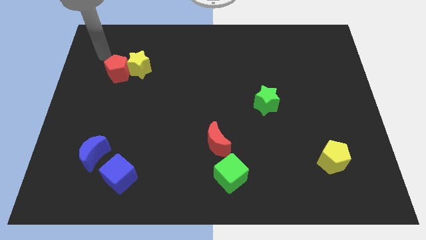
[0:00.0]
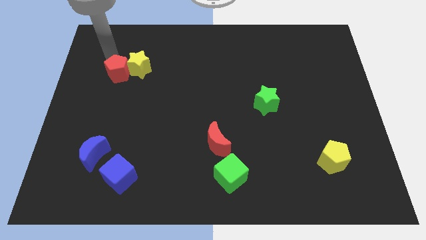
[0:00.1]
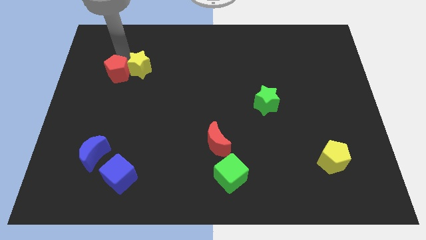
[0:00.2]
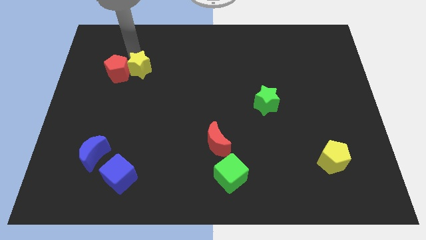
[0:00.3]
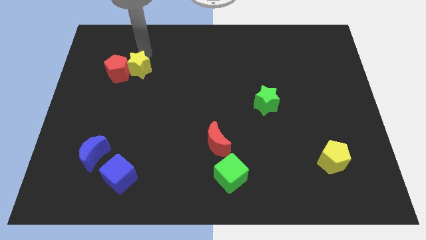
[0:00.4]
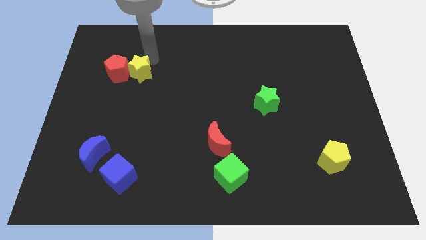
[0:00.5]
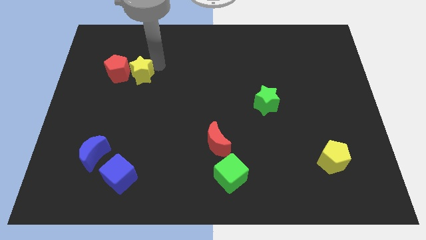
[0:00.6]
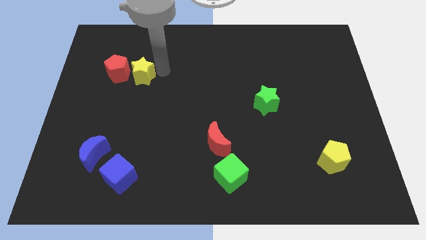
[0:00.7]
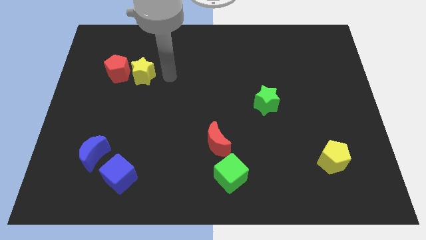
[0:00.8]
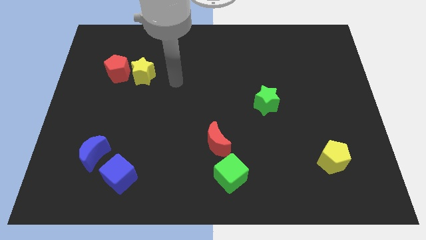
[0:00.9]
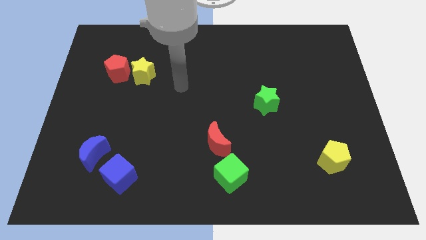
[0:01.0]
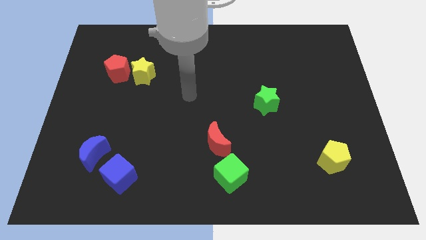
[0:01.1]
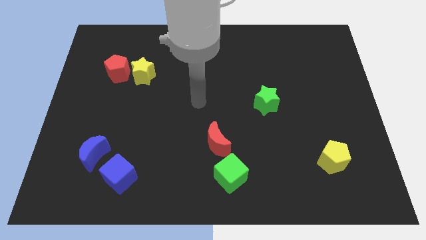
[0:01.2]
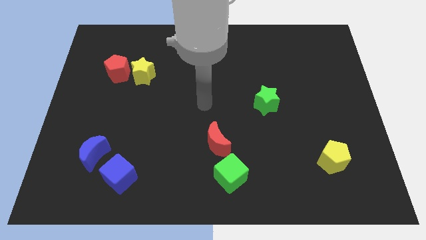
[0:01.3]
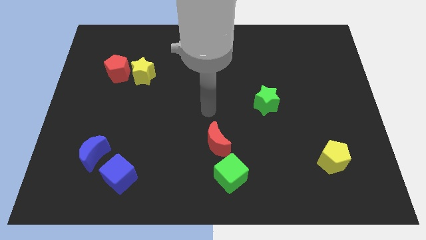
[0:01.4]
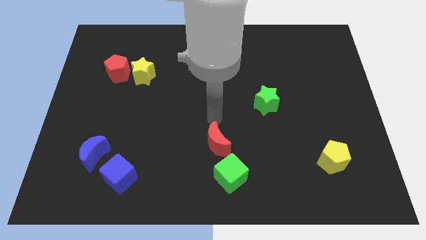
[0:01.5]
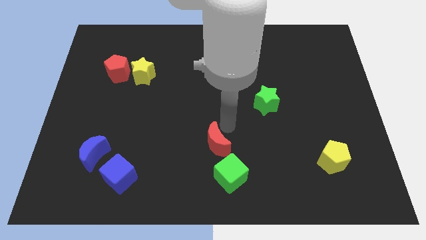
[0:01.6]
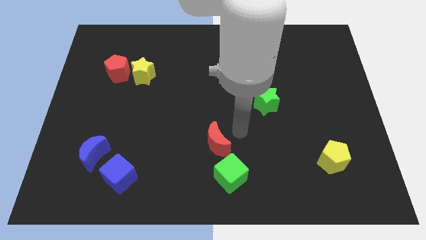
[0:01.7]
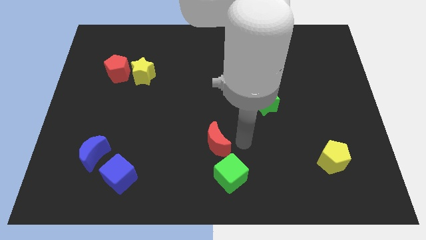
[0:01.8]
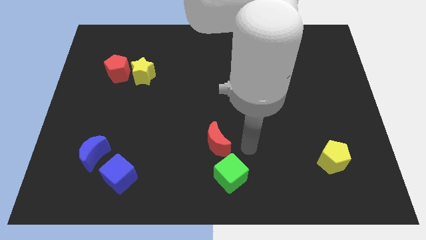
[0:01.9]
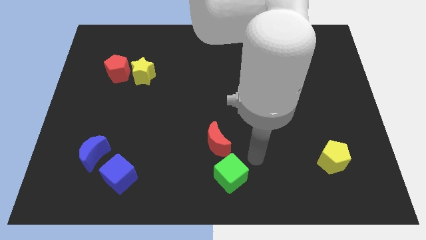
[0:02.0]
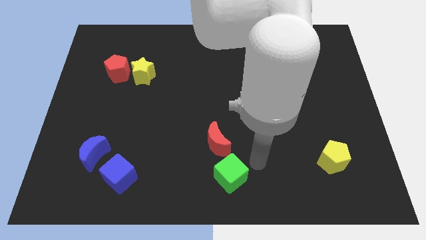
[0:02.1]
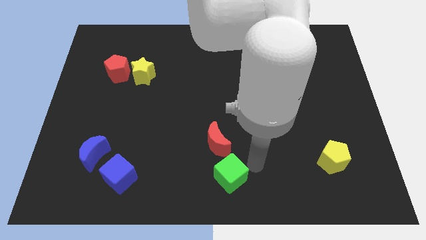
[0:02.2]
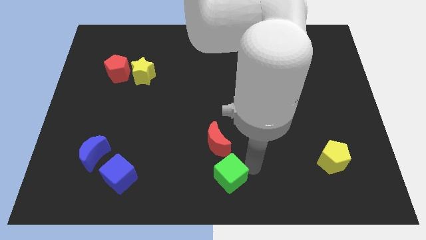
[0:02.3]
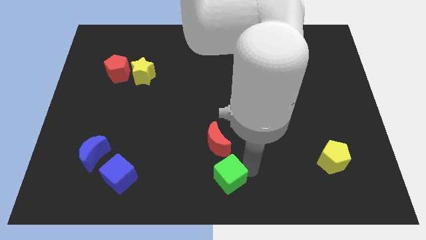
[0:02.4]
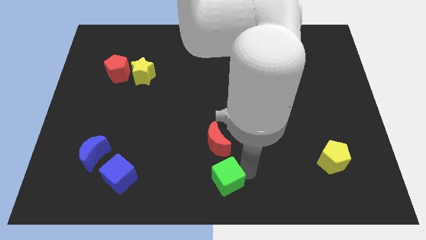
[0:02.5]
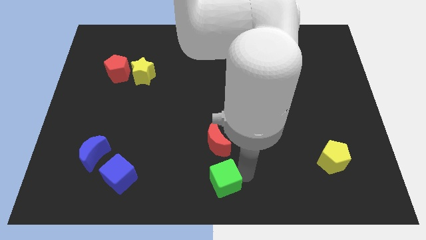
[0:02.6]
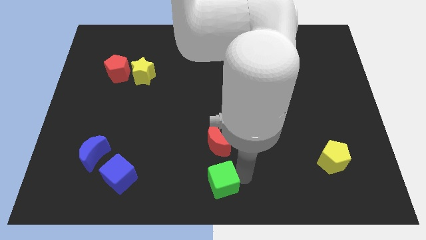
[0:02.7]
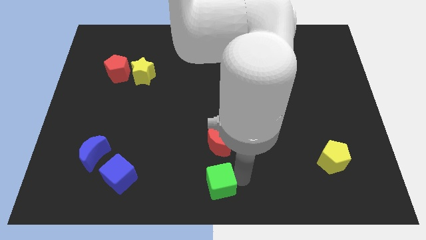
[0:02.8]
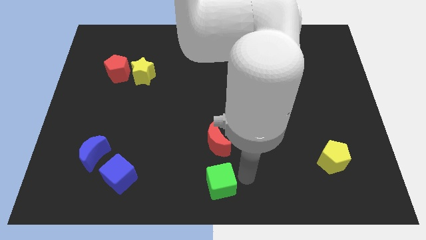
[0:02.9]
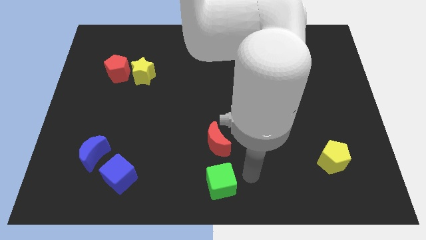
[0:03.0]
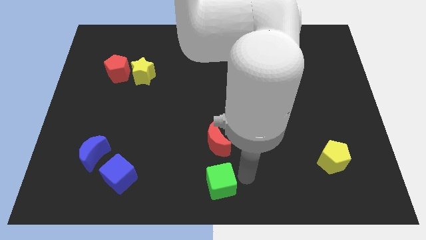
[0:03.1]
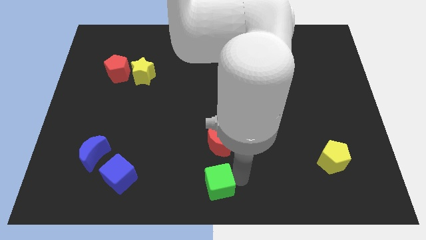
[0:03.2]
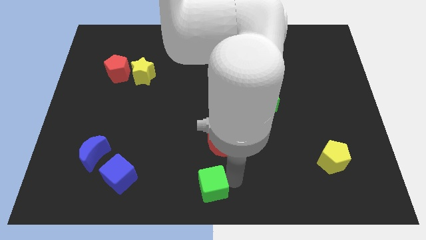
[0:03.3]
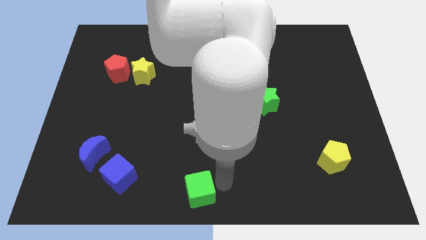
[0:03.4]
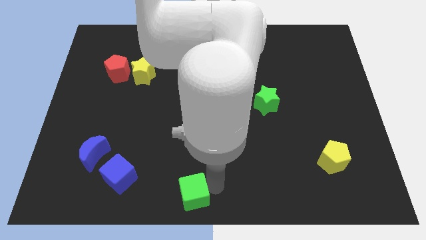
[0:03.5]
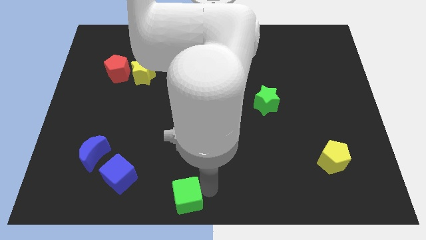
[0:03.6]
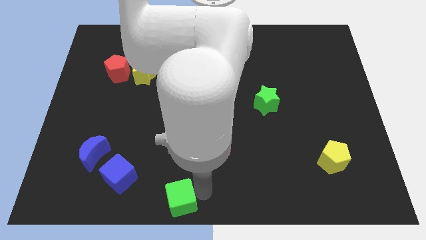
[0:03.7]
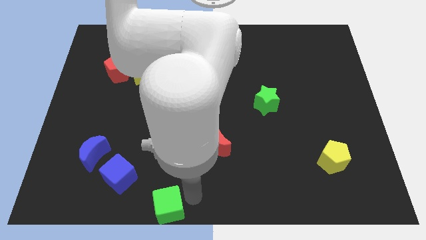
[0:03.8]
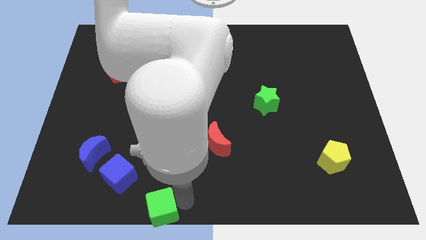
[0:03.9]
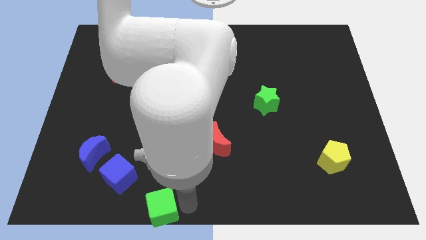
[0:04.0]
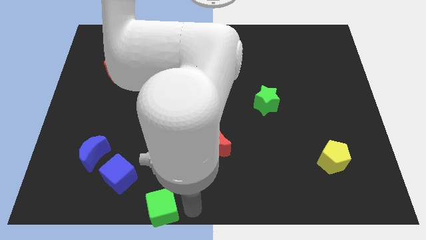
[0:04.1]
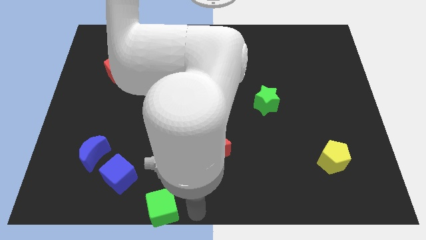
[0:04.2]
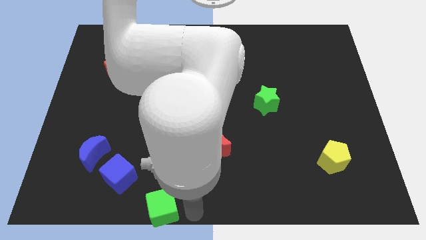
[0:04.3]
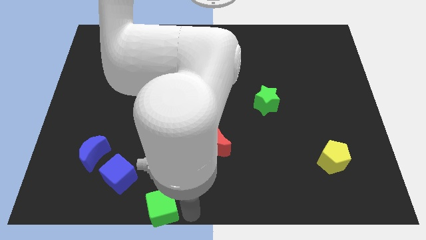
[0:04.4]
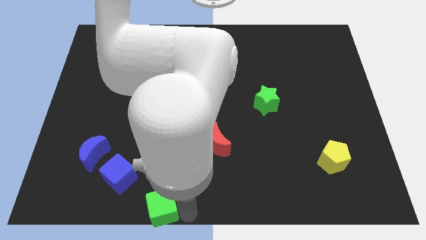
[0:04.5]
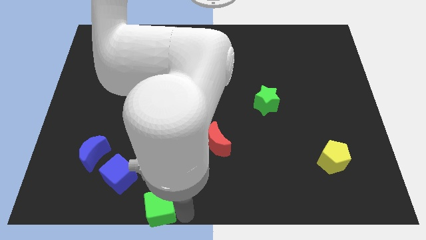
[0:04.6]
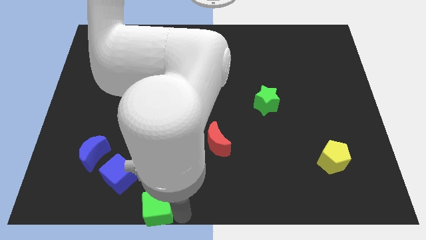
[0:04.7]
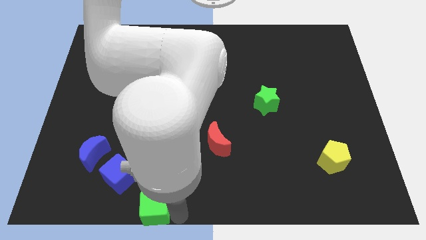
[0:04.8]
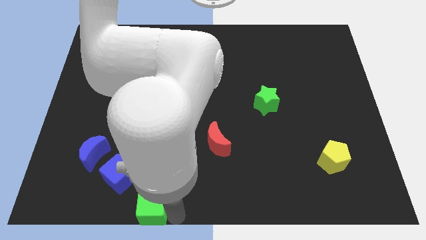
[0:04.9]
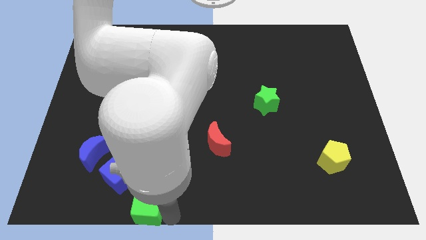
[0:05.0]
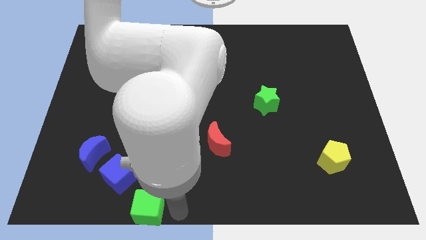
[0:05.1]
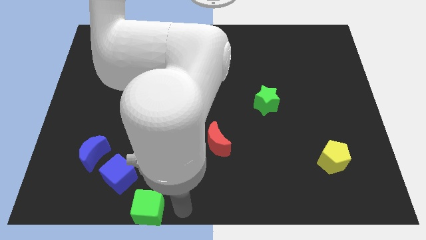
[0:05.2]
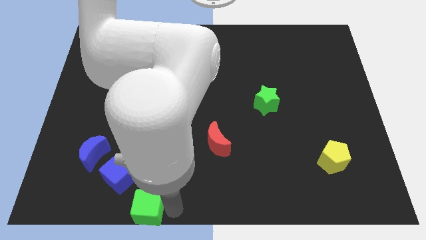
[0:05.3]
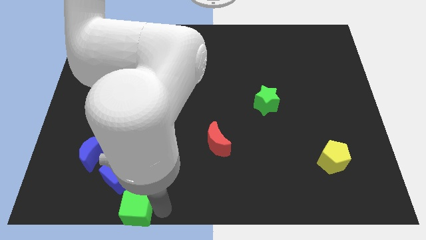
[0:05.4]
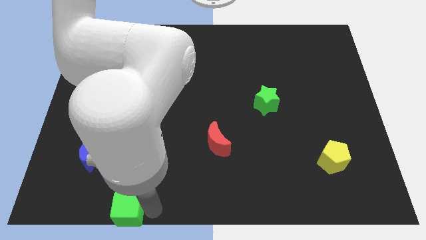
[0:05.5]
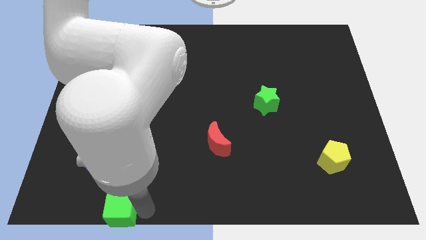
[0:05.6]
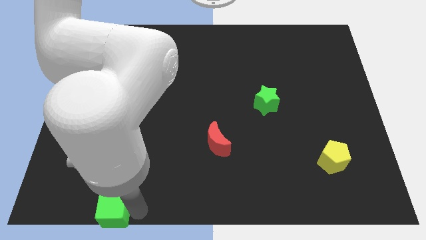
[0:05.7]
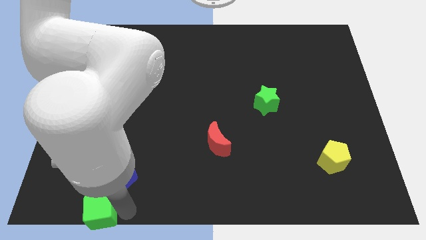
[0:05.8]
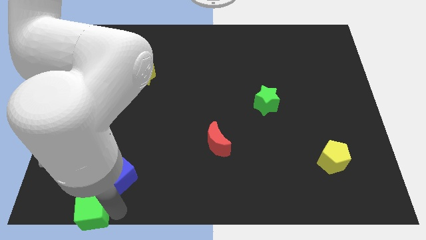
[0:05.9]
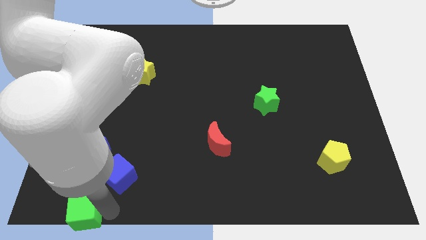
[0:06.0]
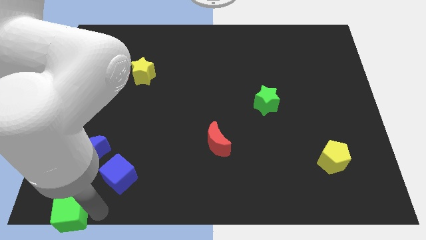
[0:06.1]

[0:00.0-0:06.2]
move the green cube to the lower left corner

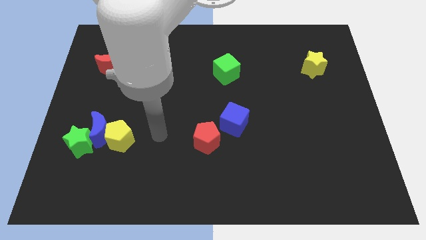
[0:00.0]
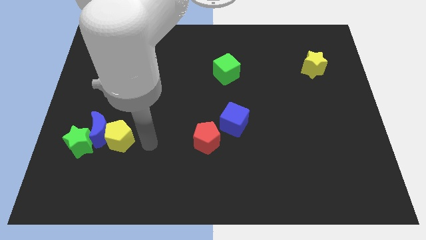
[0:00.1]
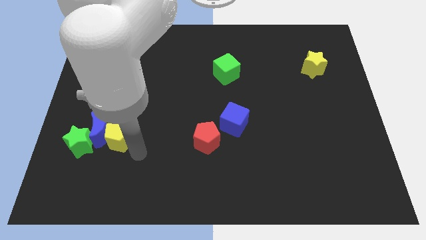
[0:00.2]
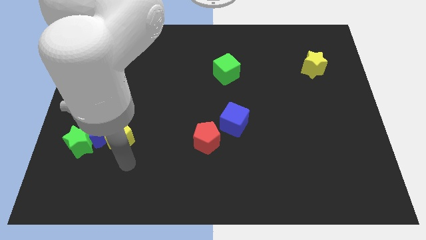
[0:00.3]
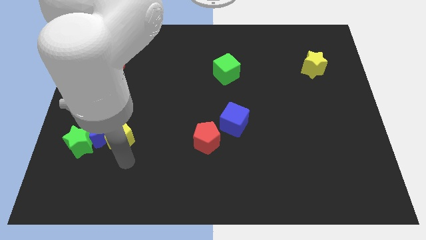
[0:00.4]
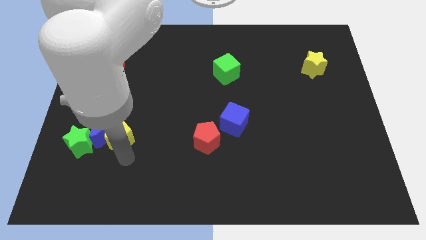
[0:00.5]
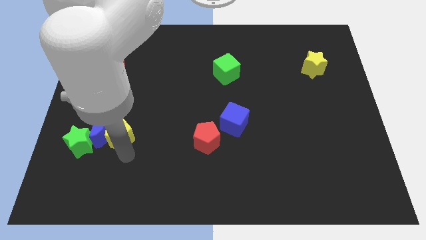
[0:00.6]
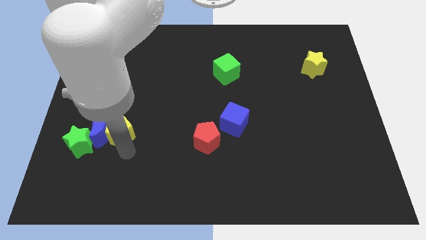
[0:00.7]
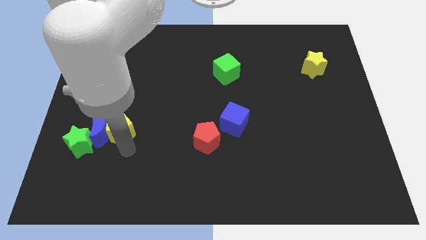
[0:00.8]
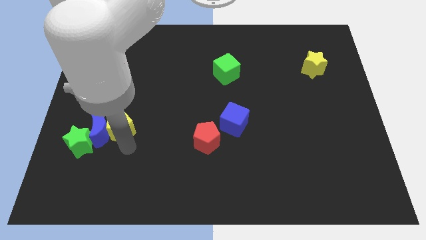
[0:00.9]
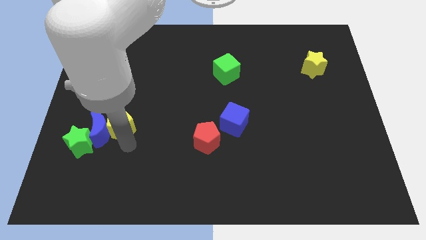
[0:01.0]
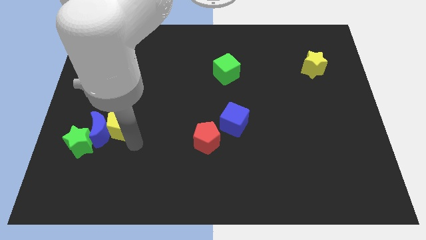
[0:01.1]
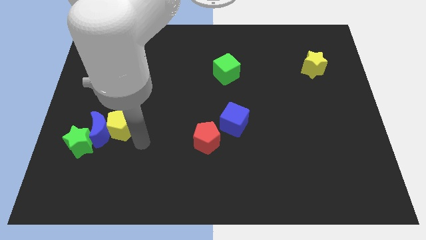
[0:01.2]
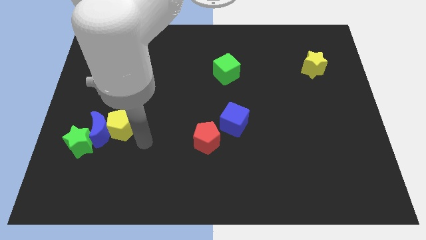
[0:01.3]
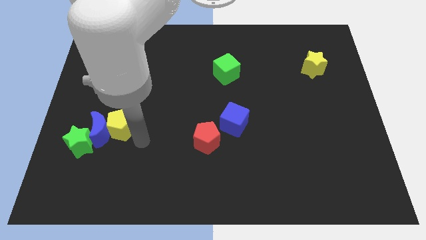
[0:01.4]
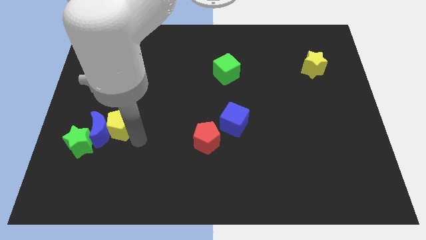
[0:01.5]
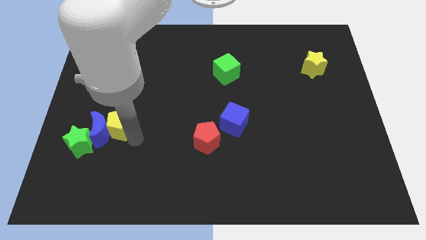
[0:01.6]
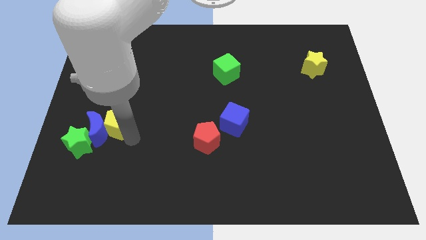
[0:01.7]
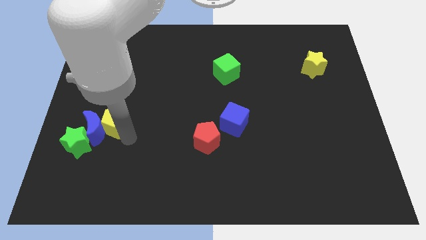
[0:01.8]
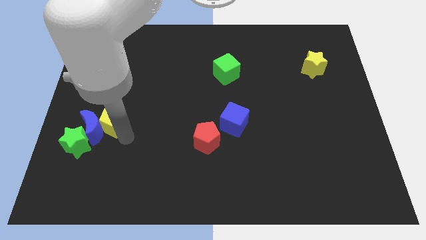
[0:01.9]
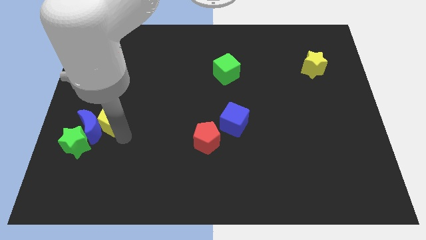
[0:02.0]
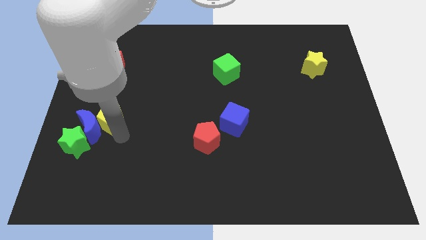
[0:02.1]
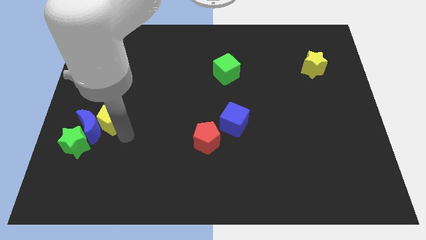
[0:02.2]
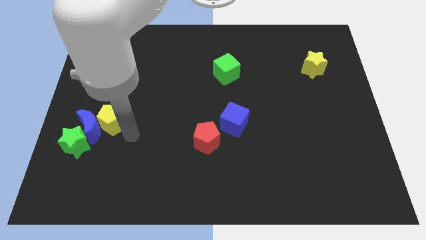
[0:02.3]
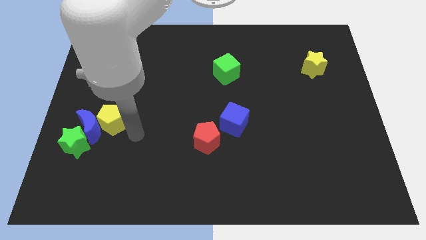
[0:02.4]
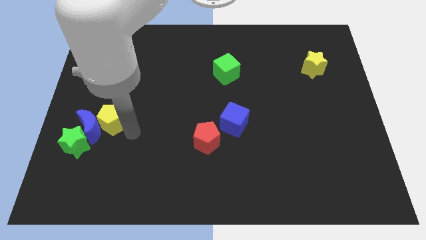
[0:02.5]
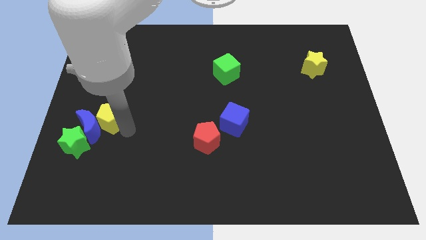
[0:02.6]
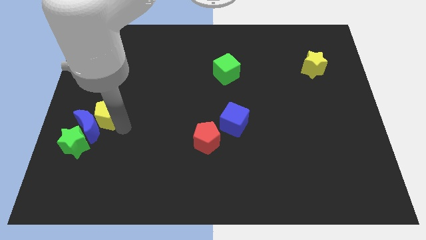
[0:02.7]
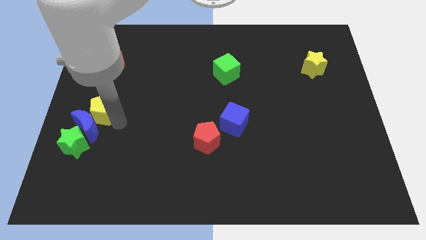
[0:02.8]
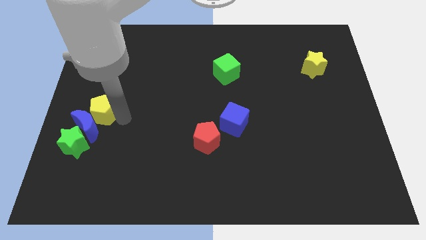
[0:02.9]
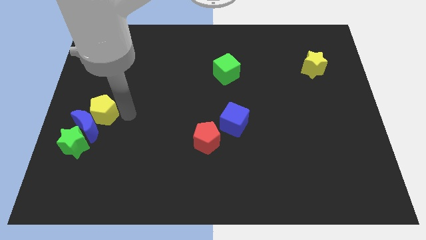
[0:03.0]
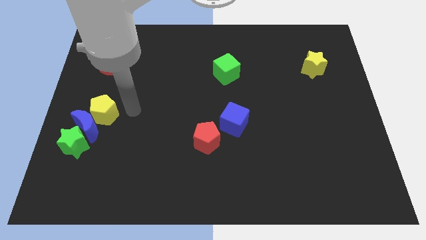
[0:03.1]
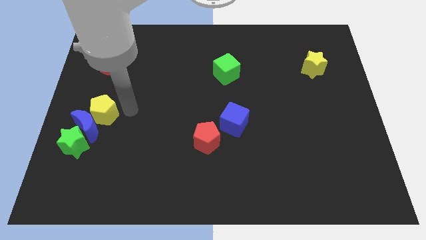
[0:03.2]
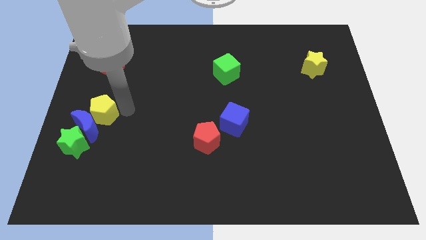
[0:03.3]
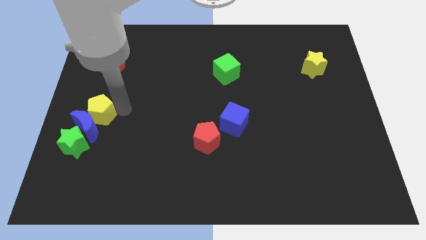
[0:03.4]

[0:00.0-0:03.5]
slide the yellow pentagon to the left side of the board
